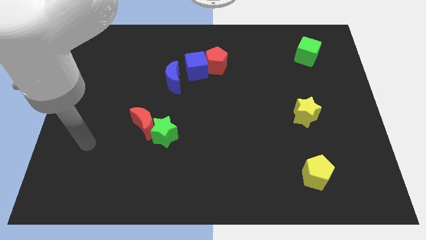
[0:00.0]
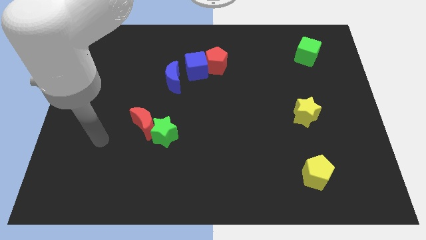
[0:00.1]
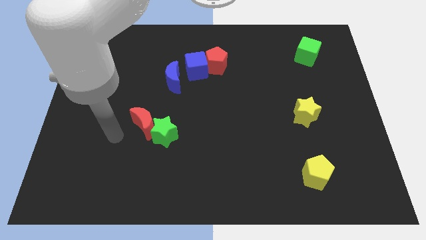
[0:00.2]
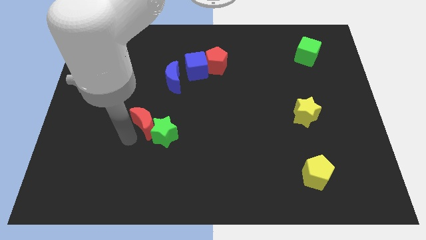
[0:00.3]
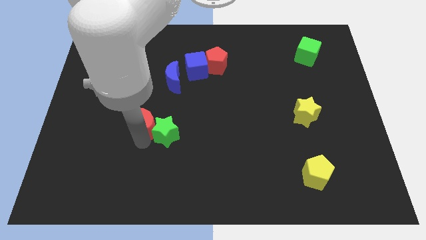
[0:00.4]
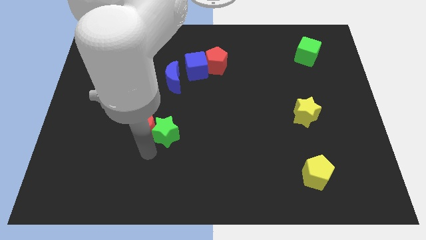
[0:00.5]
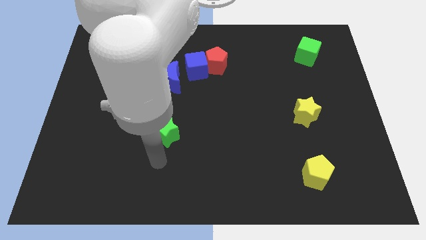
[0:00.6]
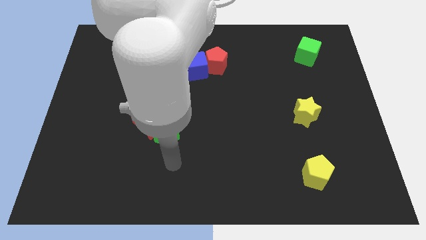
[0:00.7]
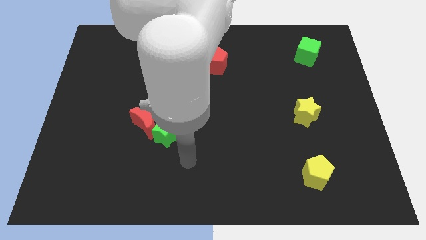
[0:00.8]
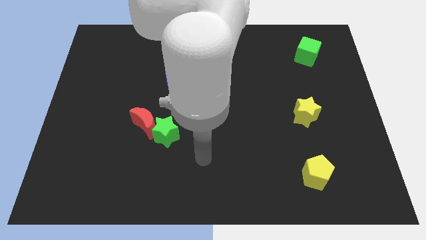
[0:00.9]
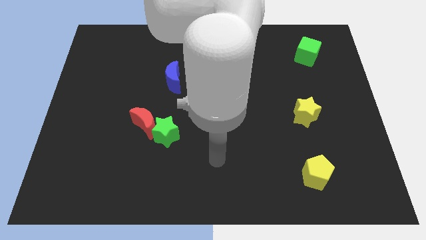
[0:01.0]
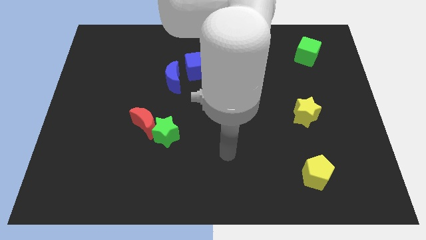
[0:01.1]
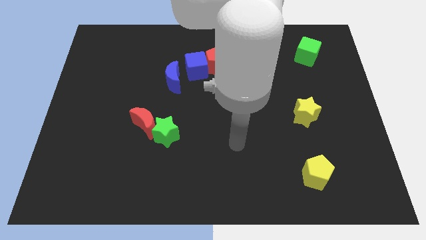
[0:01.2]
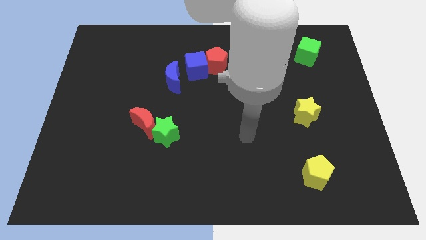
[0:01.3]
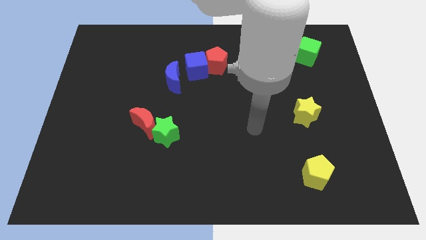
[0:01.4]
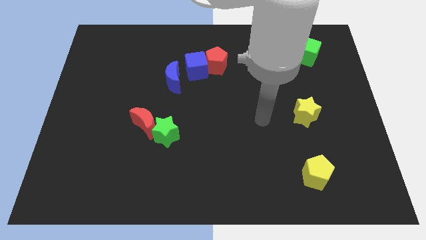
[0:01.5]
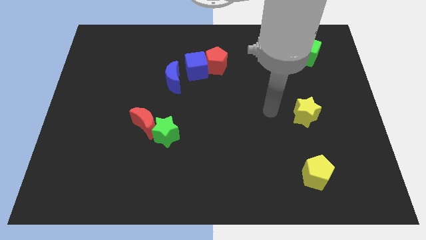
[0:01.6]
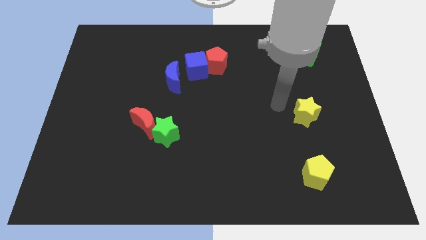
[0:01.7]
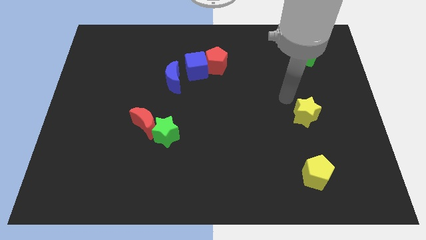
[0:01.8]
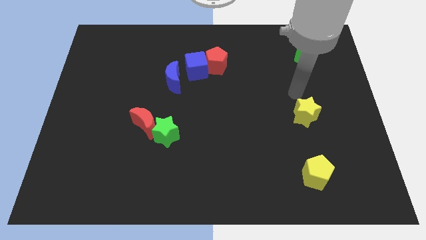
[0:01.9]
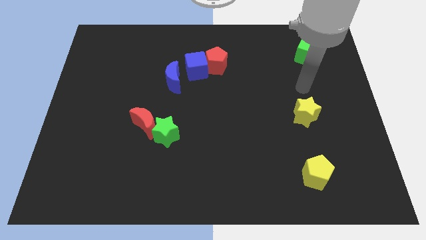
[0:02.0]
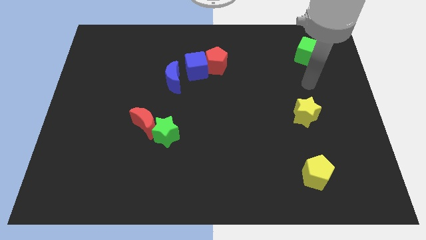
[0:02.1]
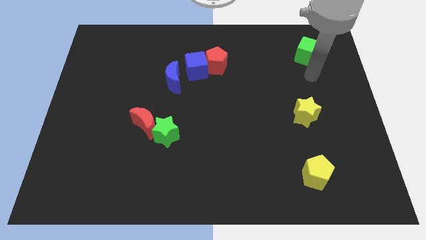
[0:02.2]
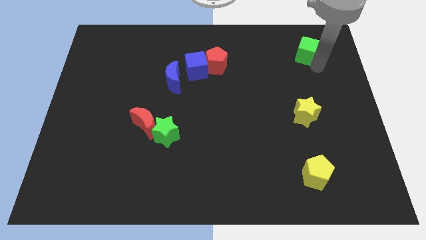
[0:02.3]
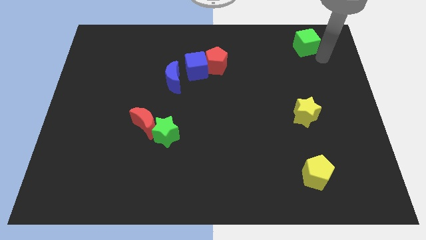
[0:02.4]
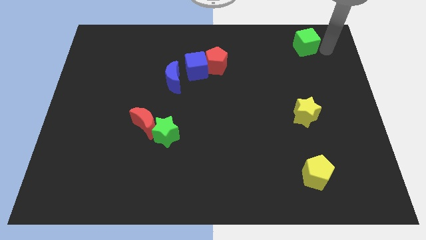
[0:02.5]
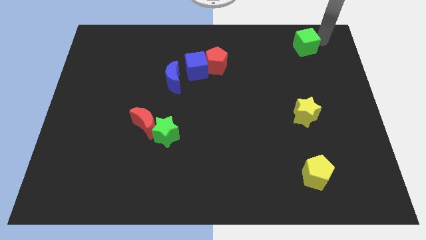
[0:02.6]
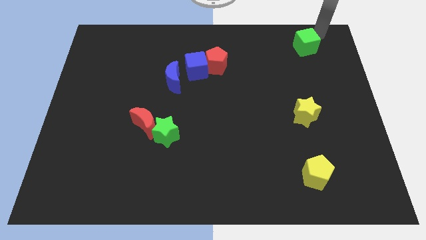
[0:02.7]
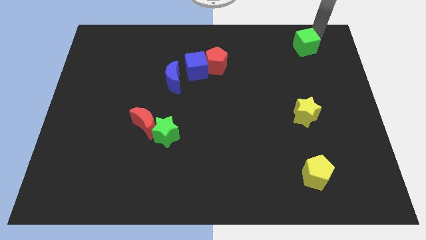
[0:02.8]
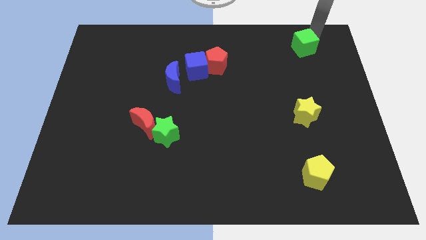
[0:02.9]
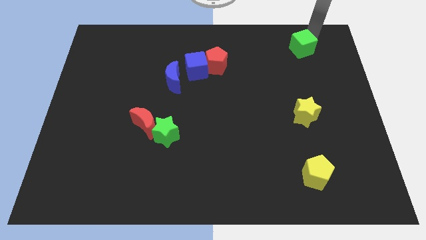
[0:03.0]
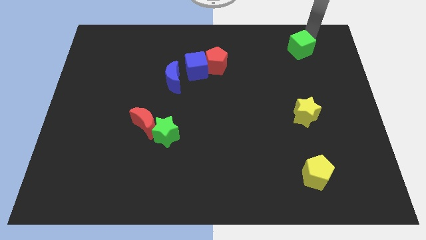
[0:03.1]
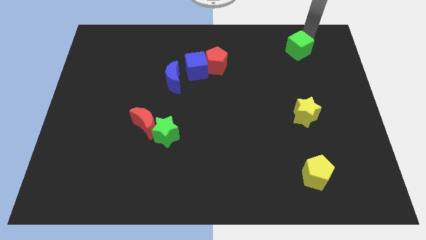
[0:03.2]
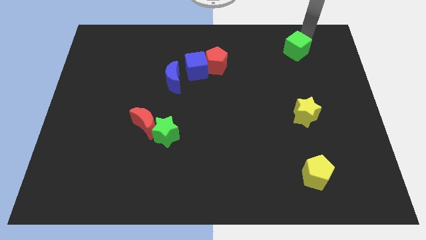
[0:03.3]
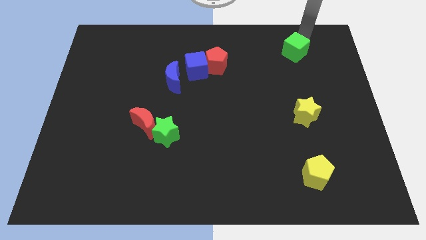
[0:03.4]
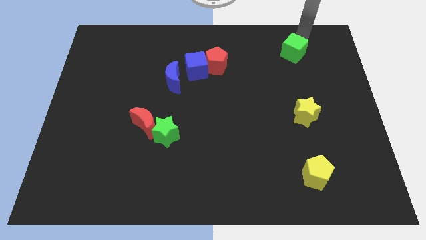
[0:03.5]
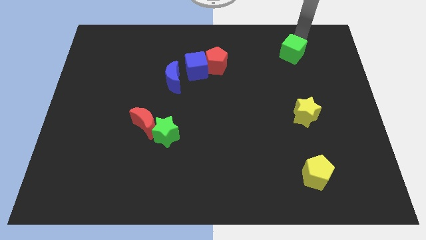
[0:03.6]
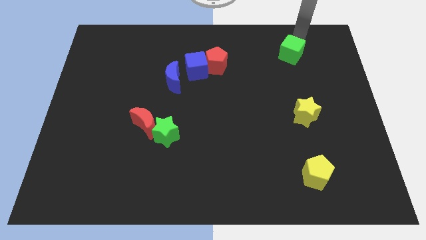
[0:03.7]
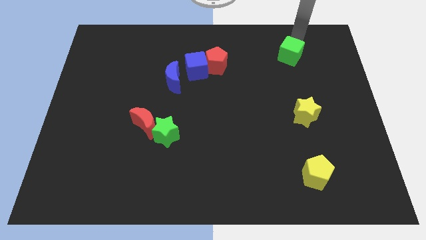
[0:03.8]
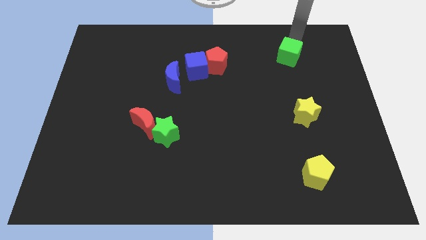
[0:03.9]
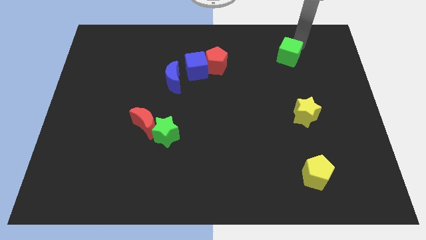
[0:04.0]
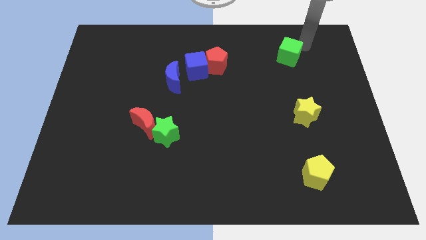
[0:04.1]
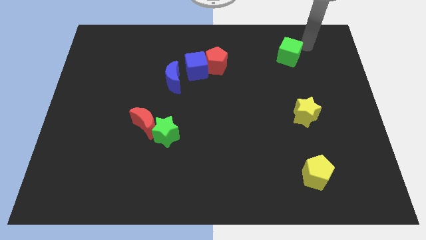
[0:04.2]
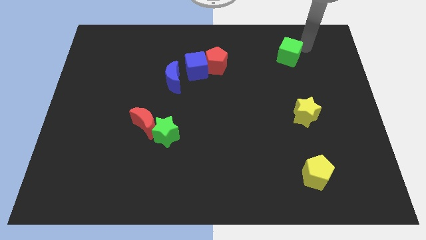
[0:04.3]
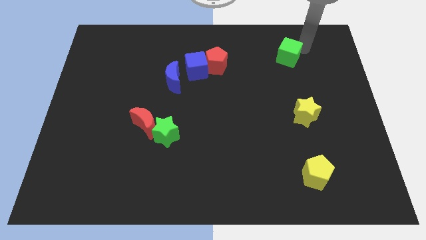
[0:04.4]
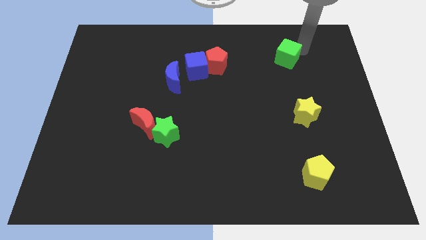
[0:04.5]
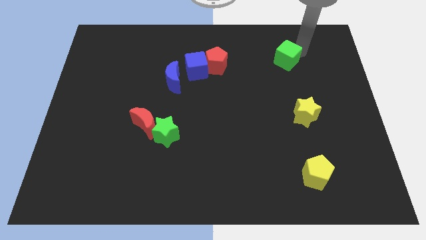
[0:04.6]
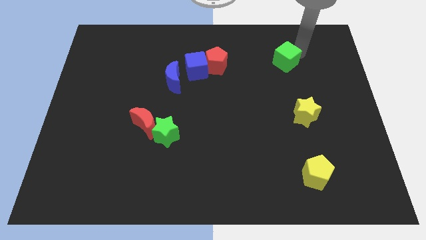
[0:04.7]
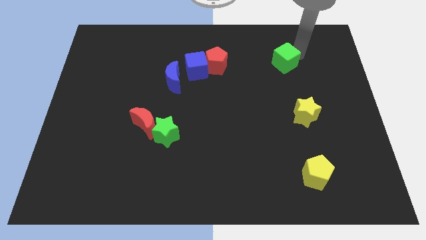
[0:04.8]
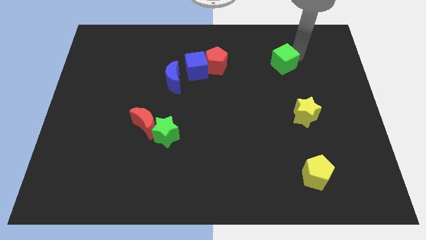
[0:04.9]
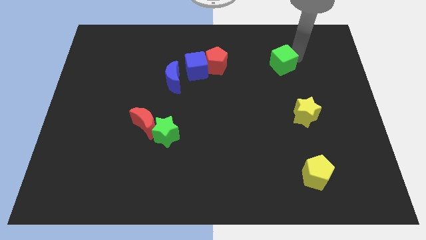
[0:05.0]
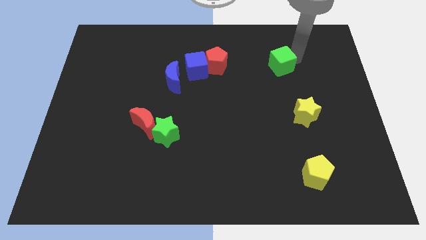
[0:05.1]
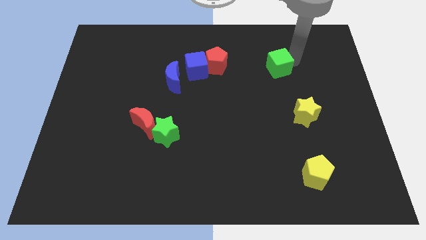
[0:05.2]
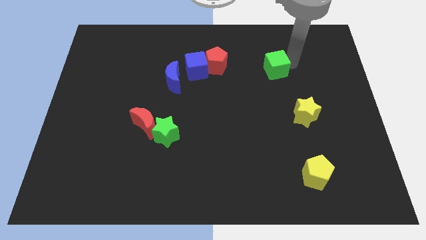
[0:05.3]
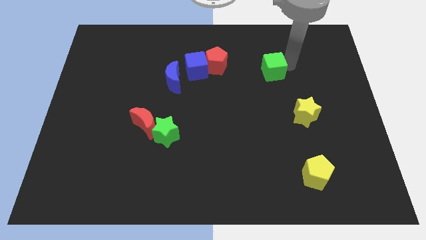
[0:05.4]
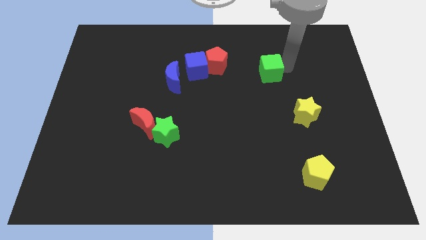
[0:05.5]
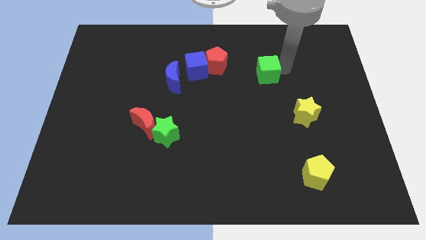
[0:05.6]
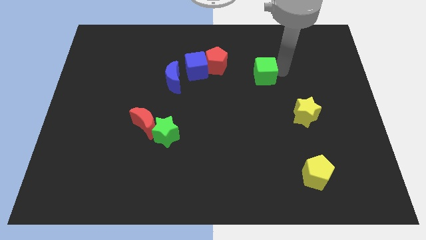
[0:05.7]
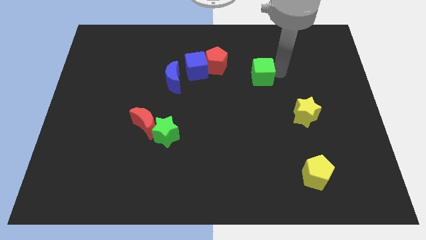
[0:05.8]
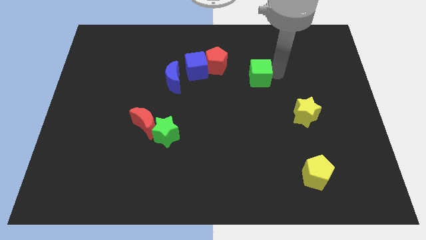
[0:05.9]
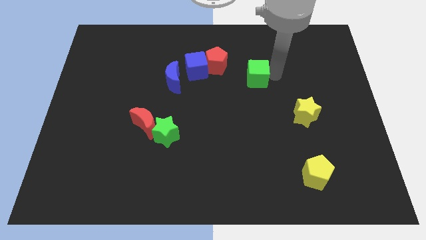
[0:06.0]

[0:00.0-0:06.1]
move the green cube right of the blue cube
